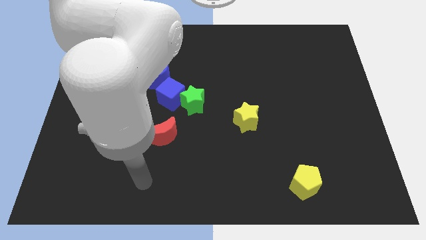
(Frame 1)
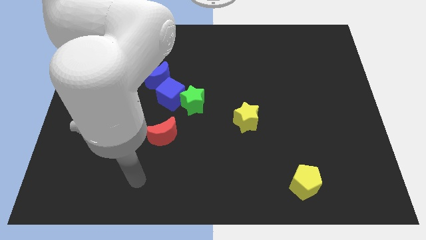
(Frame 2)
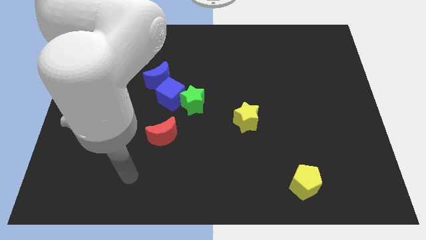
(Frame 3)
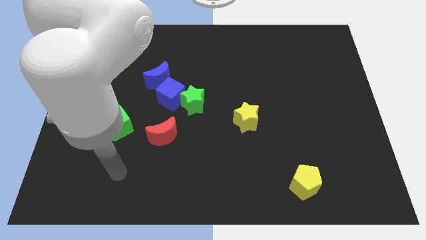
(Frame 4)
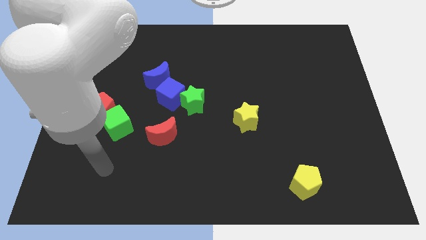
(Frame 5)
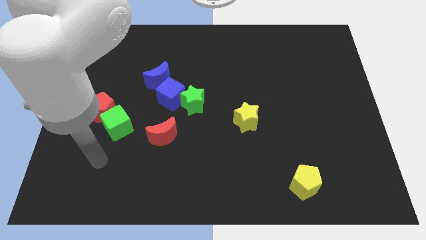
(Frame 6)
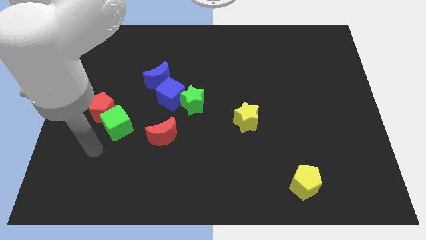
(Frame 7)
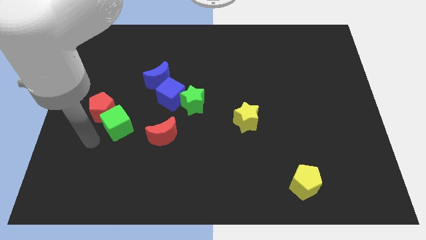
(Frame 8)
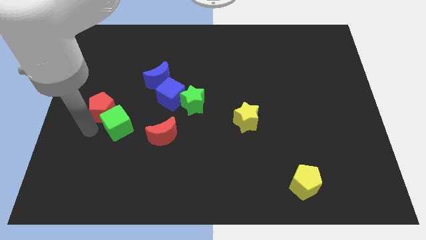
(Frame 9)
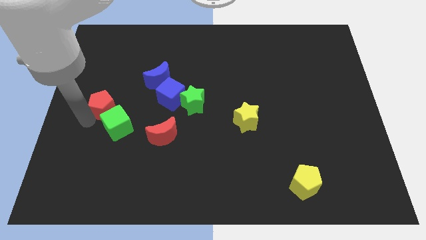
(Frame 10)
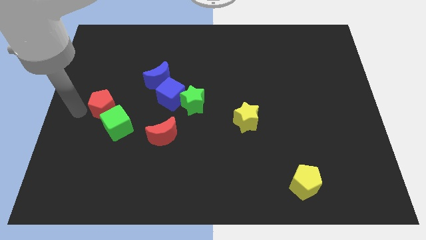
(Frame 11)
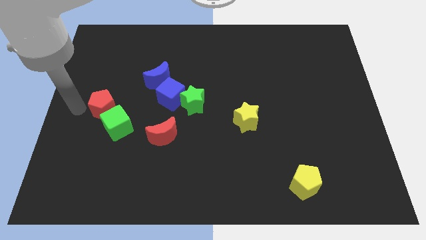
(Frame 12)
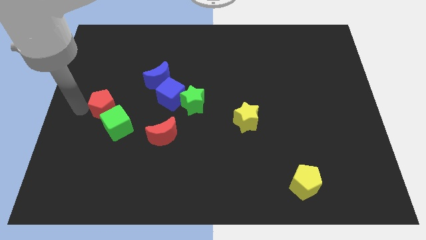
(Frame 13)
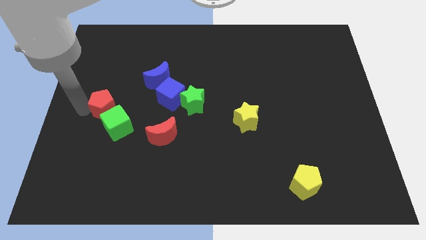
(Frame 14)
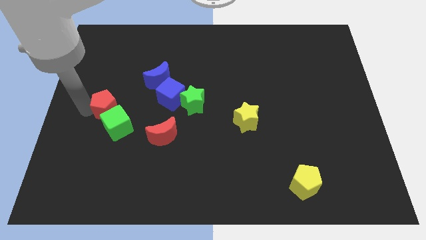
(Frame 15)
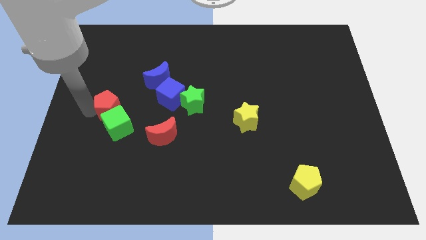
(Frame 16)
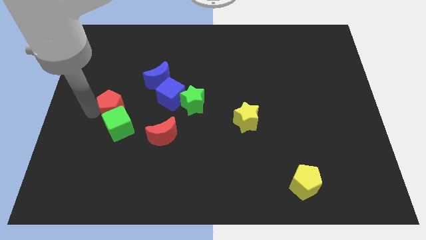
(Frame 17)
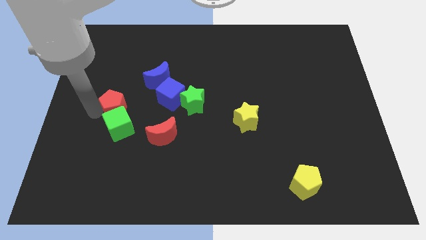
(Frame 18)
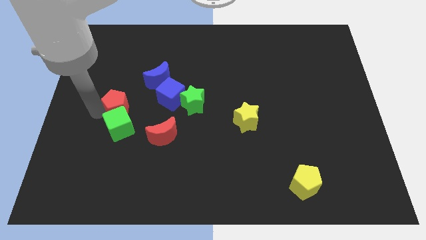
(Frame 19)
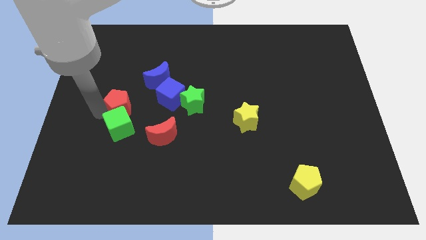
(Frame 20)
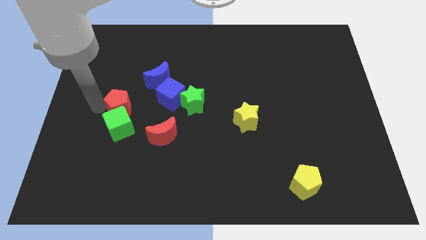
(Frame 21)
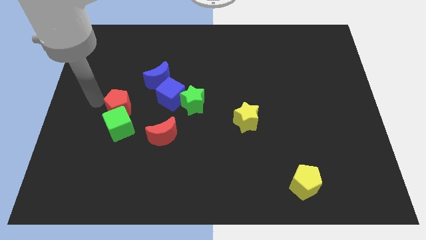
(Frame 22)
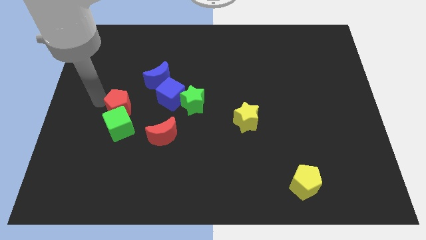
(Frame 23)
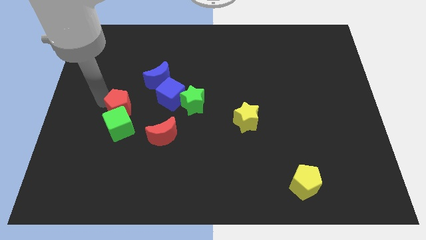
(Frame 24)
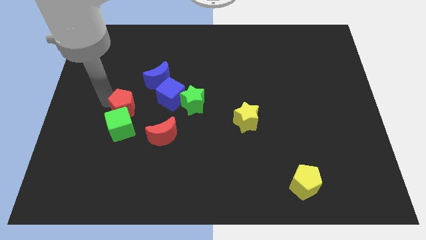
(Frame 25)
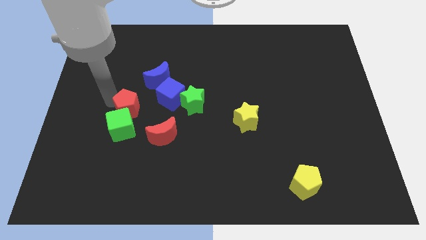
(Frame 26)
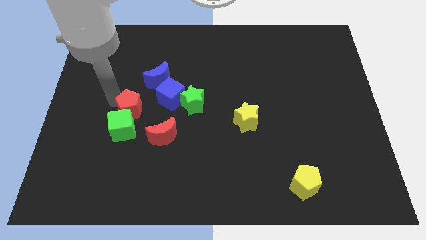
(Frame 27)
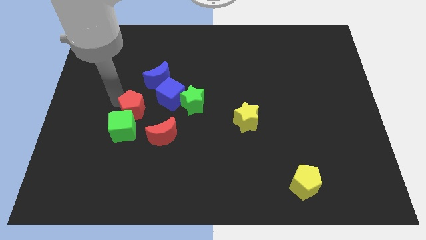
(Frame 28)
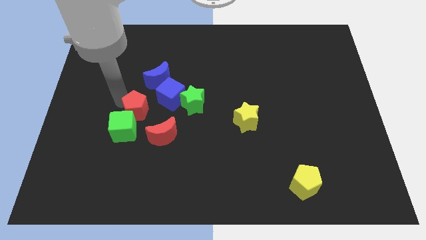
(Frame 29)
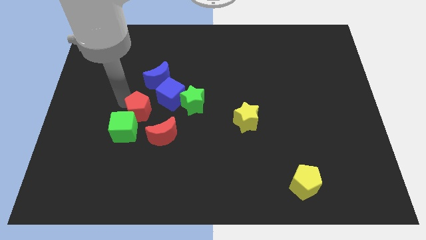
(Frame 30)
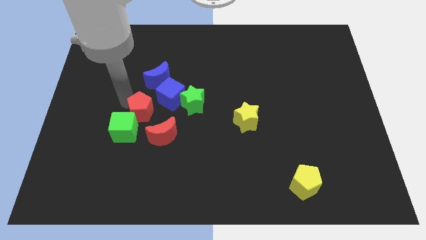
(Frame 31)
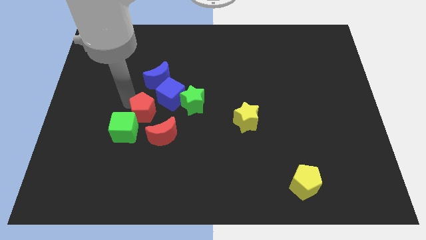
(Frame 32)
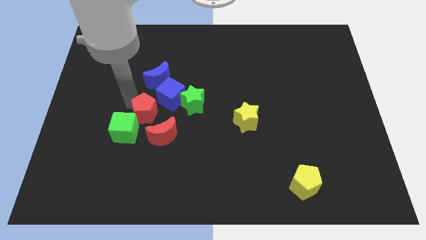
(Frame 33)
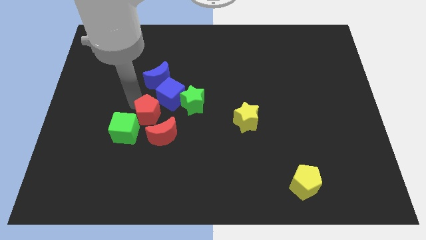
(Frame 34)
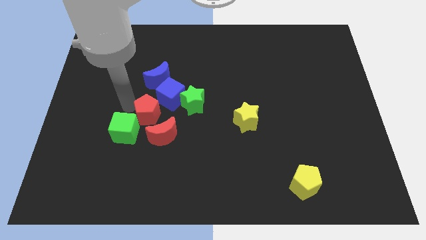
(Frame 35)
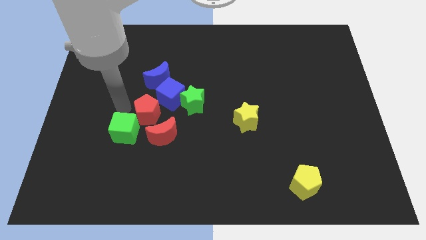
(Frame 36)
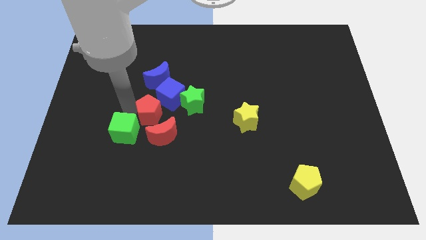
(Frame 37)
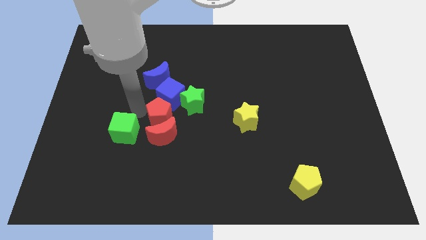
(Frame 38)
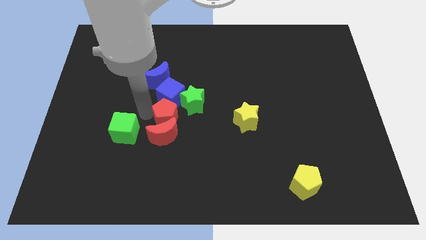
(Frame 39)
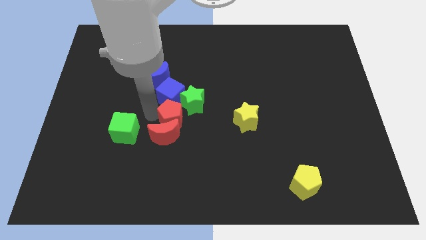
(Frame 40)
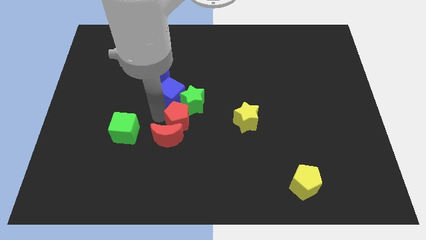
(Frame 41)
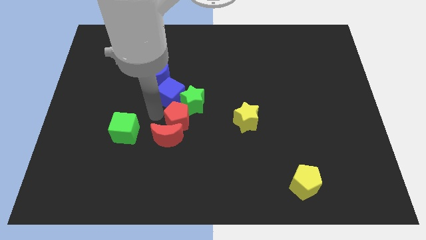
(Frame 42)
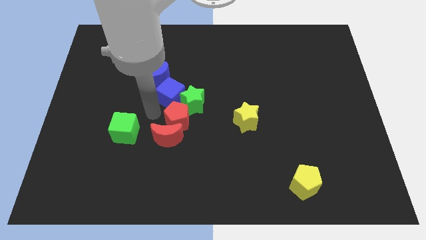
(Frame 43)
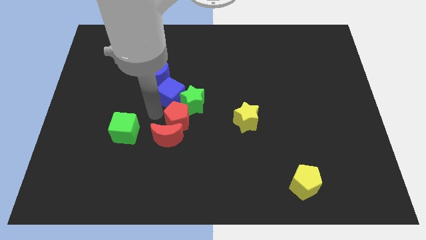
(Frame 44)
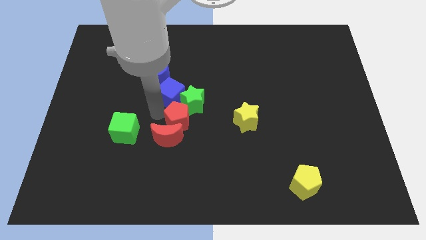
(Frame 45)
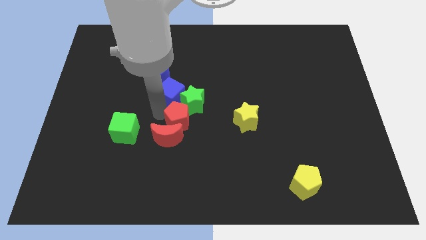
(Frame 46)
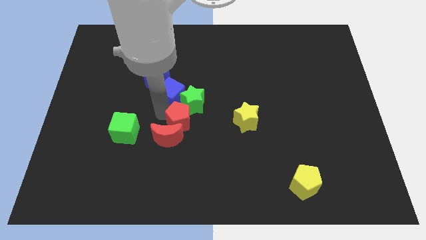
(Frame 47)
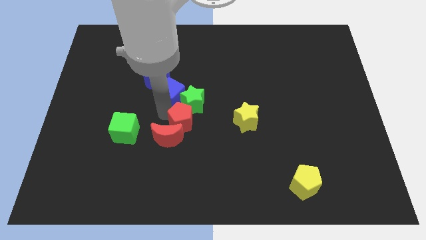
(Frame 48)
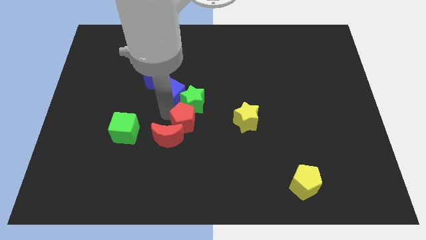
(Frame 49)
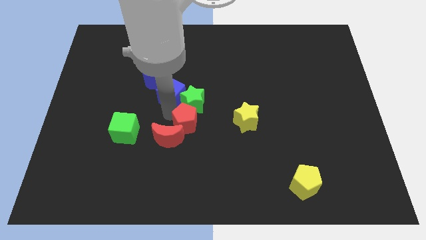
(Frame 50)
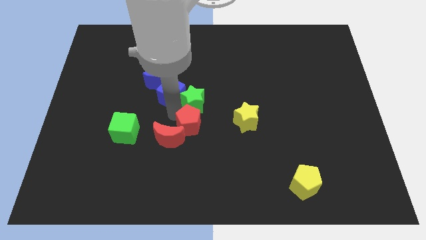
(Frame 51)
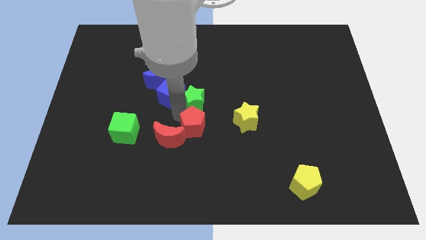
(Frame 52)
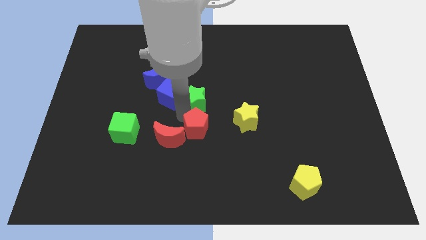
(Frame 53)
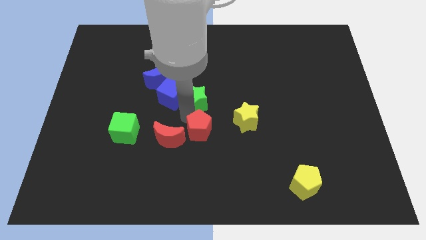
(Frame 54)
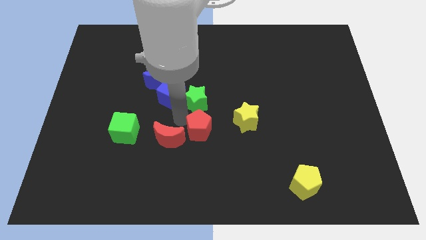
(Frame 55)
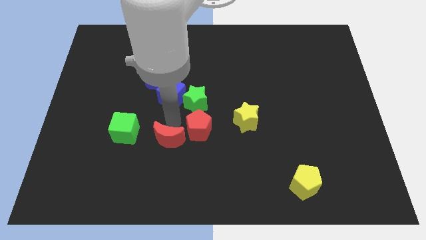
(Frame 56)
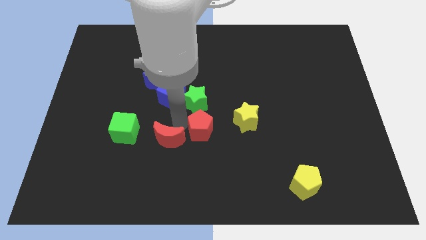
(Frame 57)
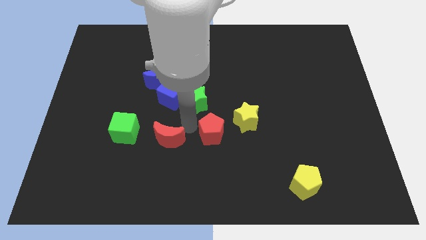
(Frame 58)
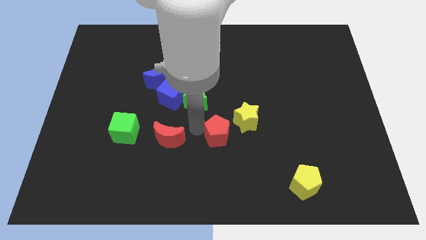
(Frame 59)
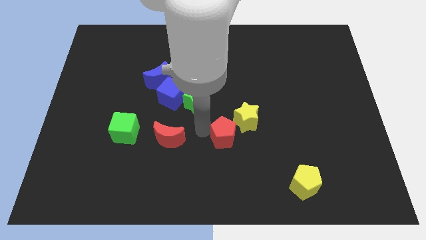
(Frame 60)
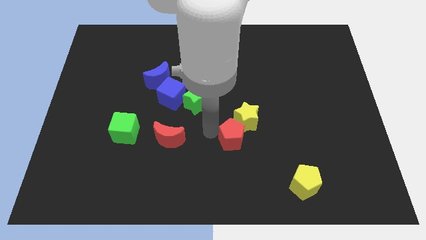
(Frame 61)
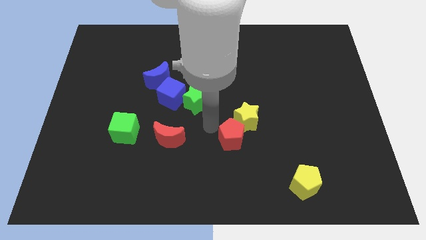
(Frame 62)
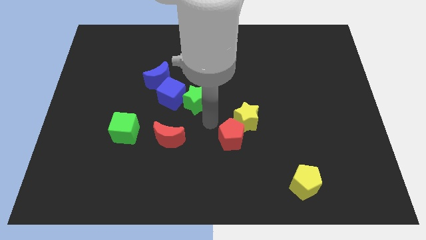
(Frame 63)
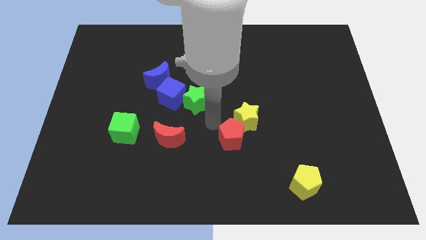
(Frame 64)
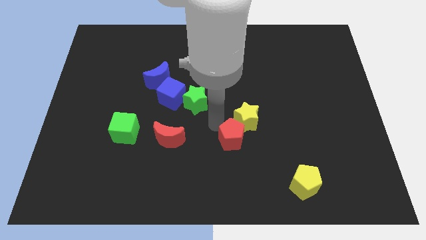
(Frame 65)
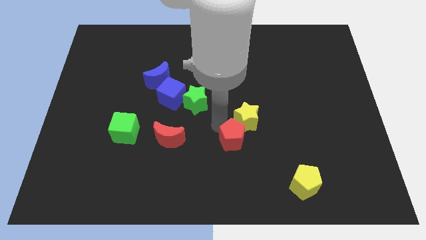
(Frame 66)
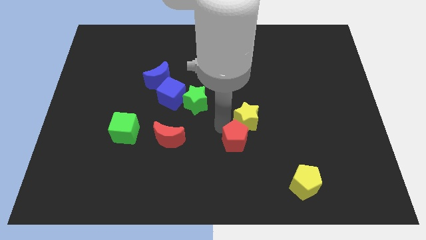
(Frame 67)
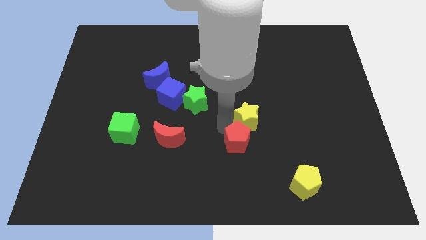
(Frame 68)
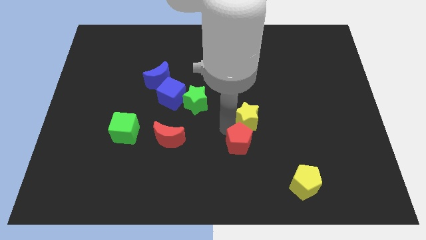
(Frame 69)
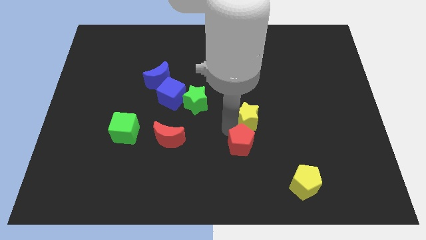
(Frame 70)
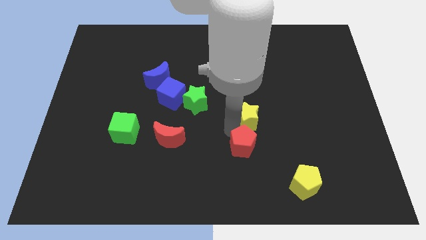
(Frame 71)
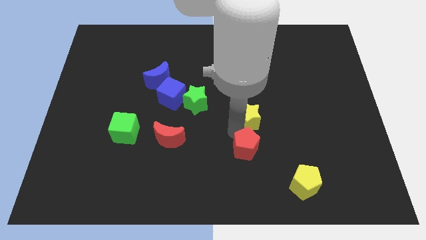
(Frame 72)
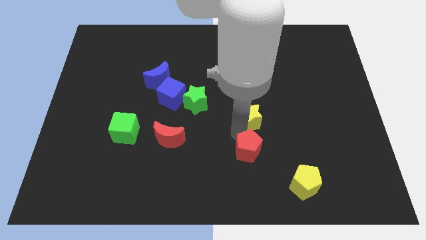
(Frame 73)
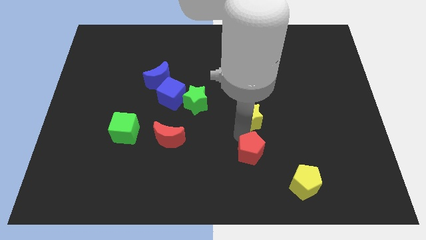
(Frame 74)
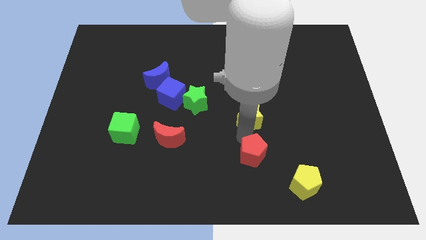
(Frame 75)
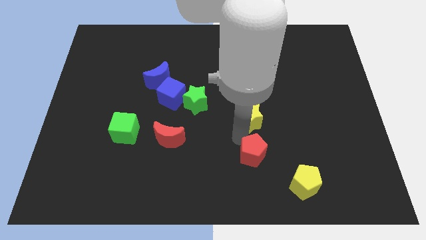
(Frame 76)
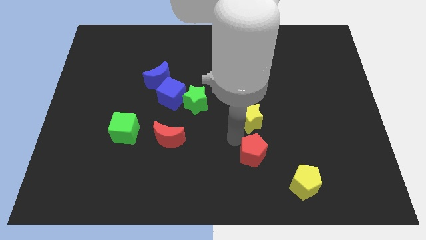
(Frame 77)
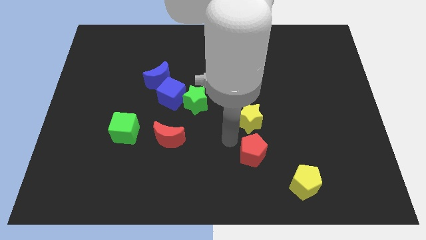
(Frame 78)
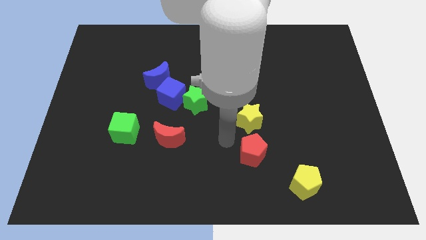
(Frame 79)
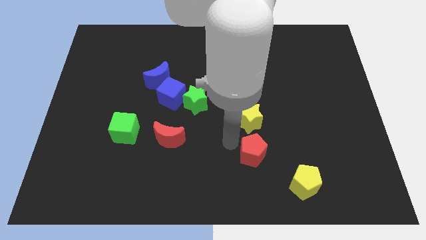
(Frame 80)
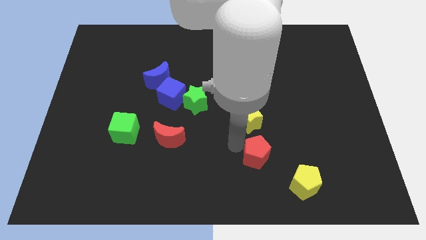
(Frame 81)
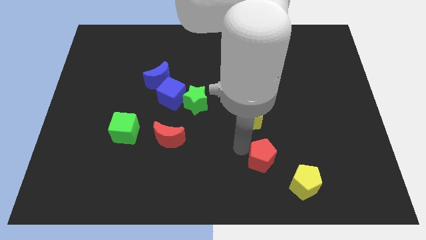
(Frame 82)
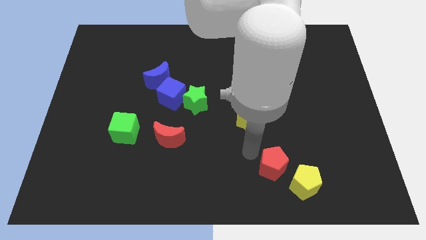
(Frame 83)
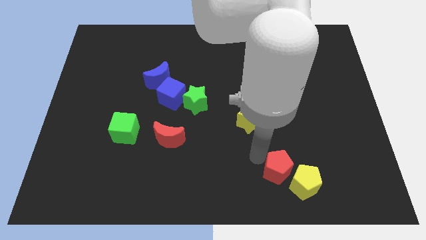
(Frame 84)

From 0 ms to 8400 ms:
push the red pentagon to the yellow pentagon
